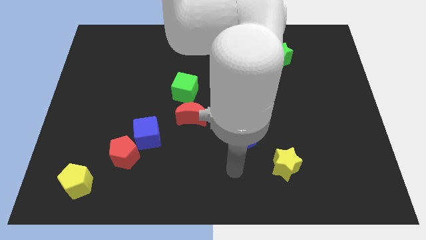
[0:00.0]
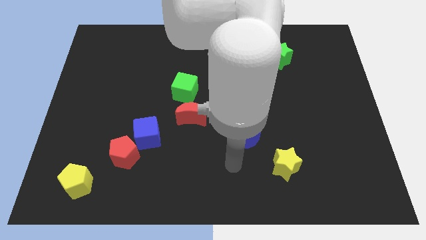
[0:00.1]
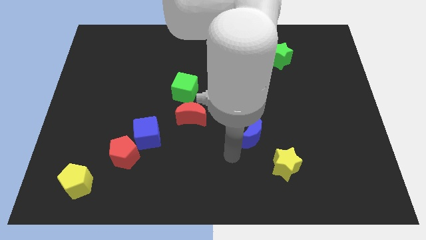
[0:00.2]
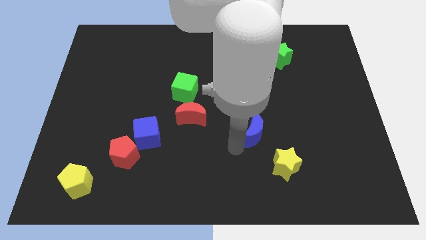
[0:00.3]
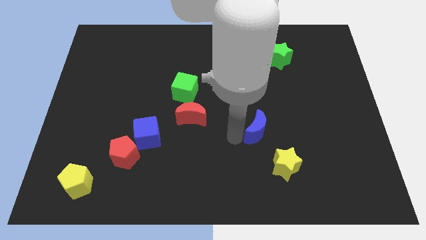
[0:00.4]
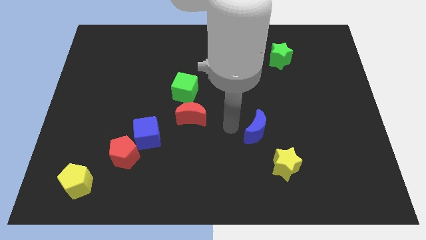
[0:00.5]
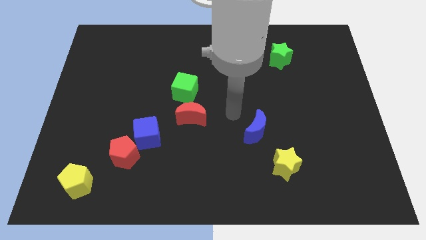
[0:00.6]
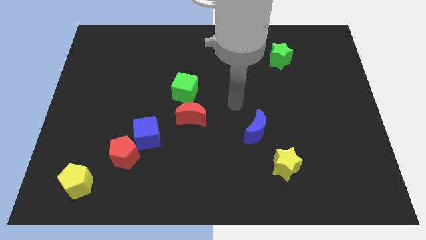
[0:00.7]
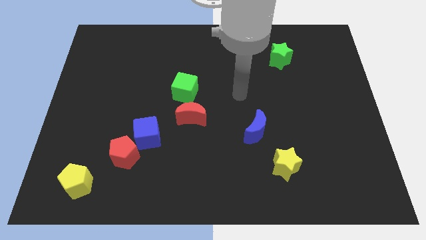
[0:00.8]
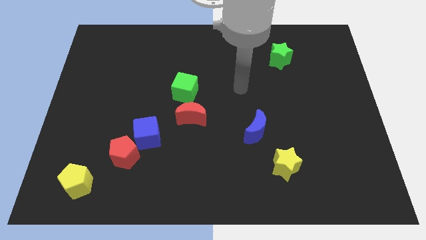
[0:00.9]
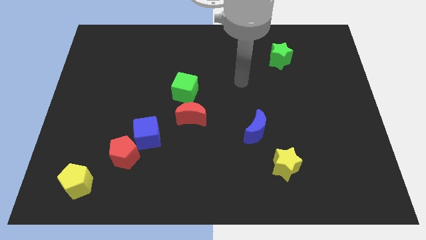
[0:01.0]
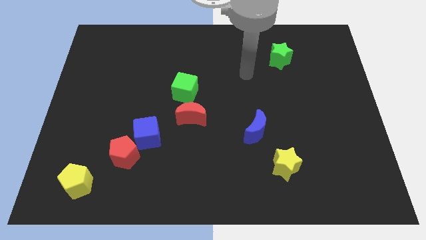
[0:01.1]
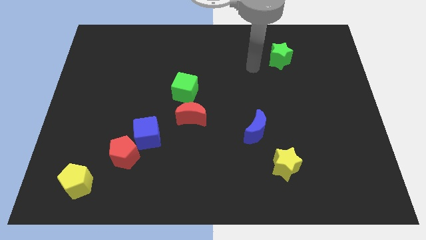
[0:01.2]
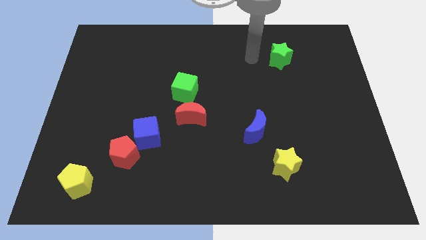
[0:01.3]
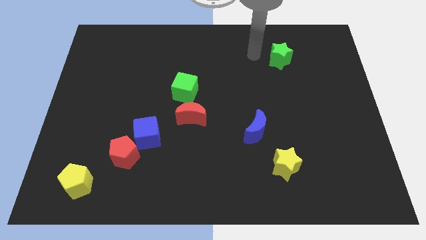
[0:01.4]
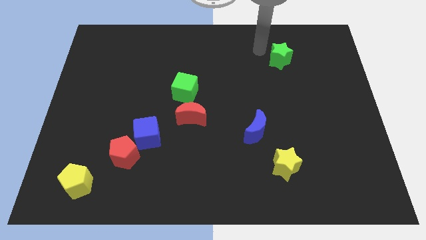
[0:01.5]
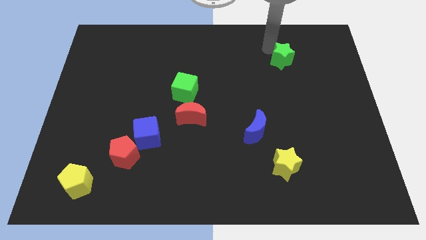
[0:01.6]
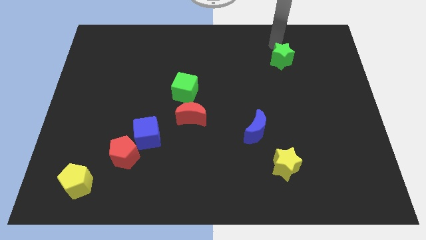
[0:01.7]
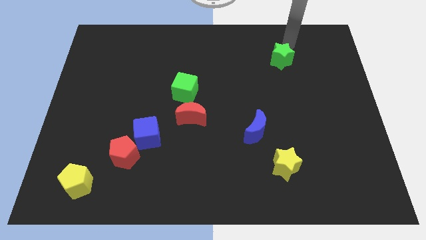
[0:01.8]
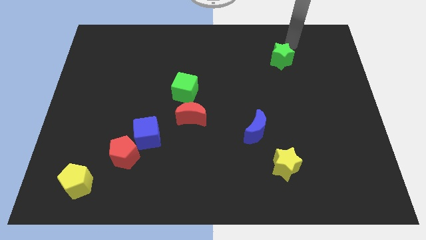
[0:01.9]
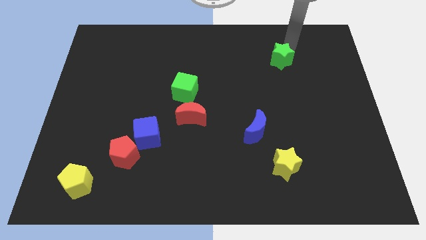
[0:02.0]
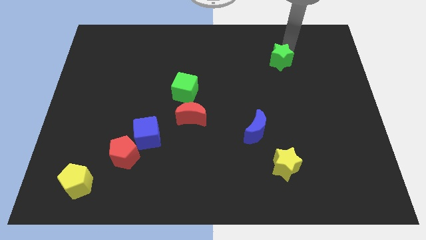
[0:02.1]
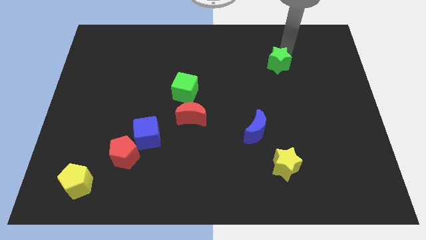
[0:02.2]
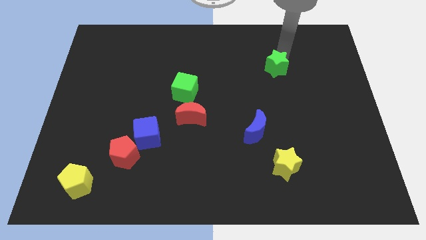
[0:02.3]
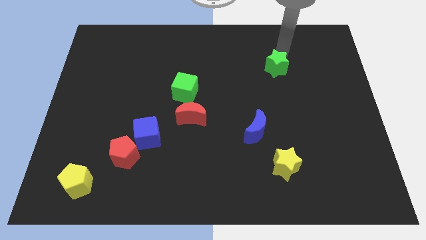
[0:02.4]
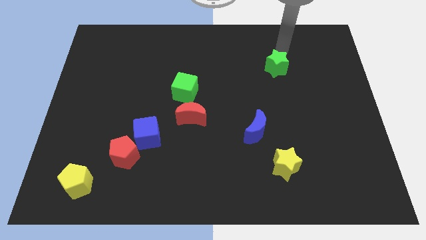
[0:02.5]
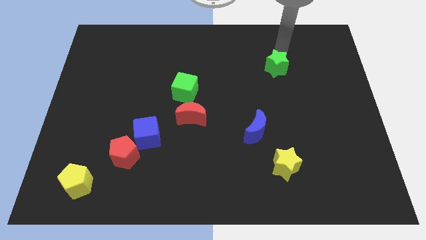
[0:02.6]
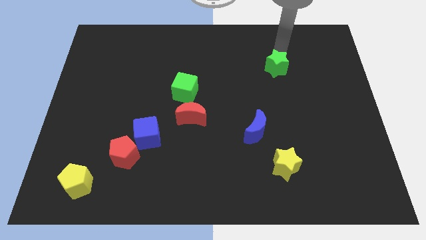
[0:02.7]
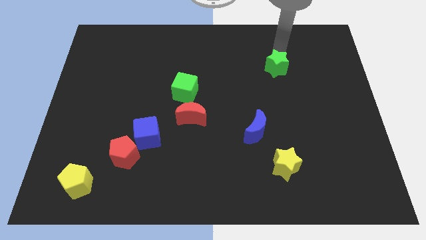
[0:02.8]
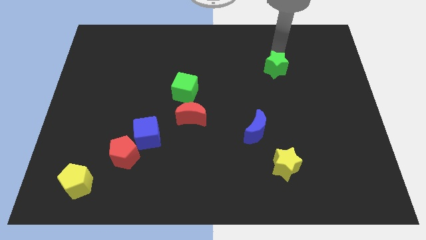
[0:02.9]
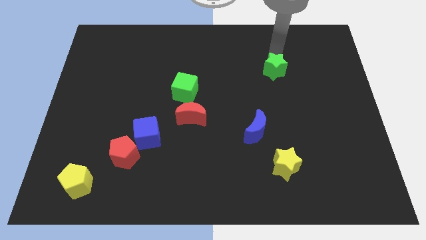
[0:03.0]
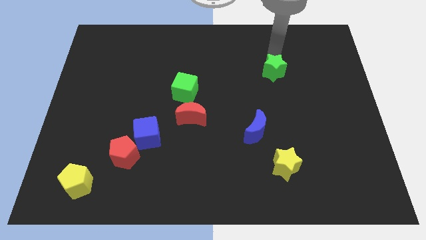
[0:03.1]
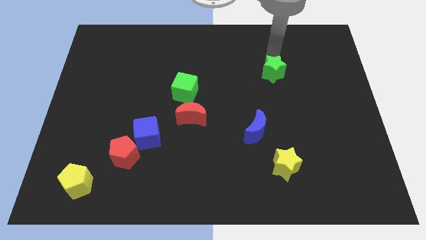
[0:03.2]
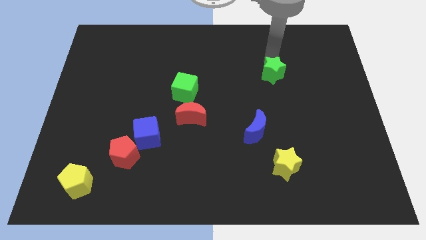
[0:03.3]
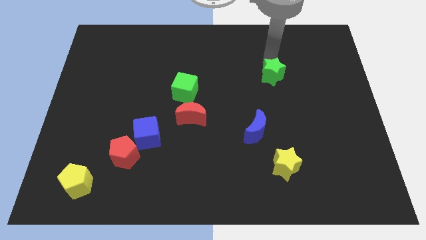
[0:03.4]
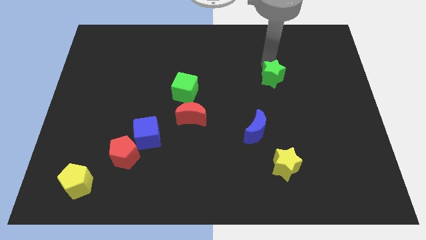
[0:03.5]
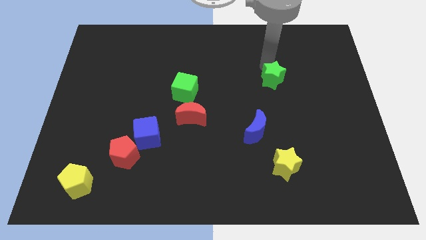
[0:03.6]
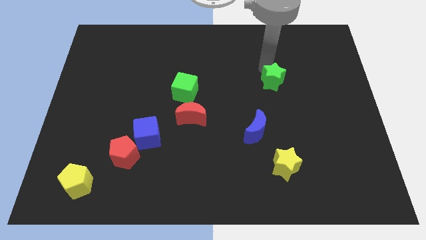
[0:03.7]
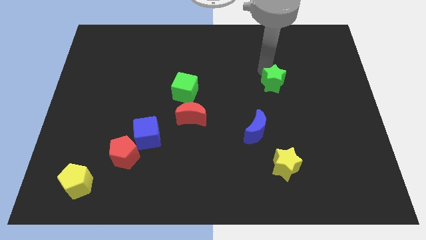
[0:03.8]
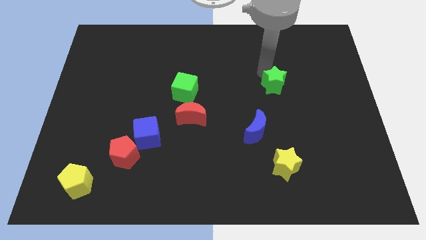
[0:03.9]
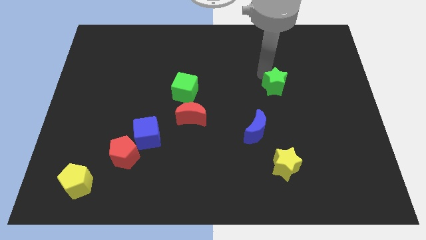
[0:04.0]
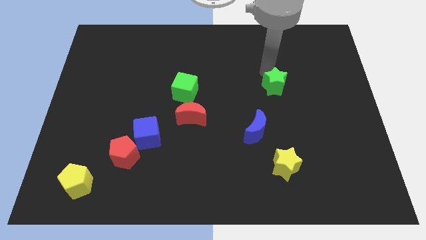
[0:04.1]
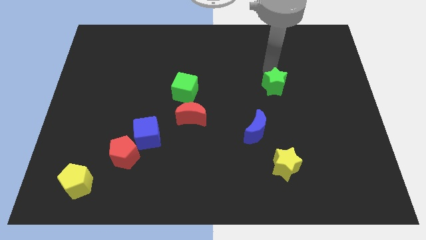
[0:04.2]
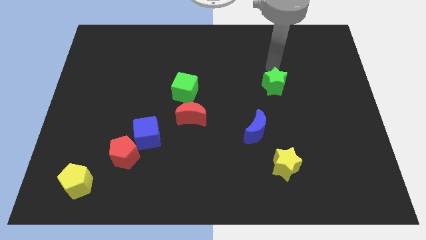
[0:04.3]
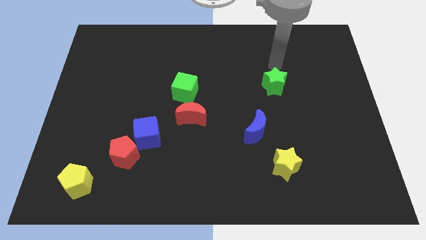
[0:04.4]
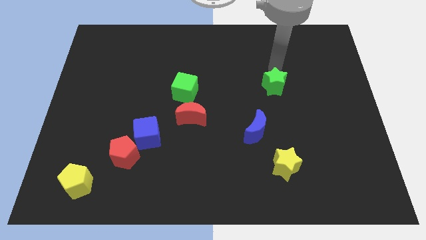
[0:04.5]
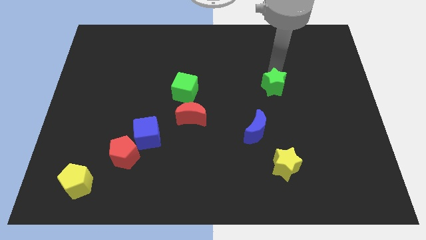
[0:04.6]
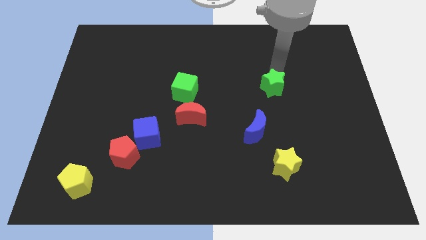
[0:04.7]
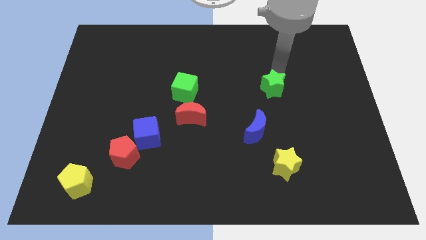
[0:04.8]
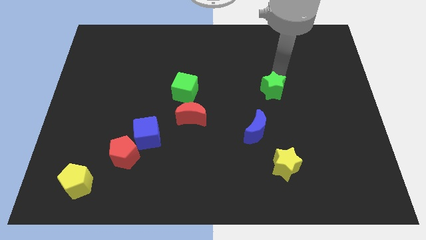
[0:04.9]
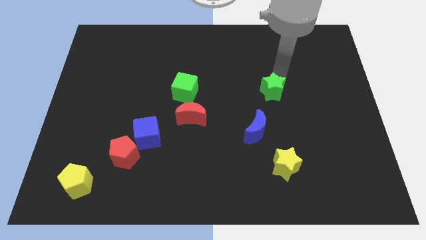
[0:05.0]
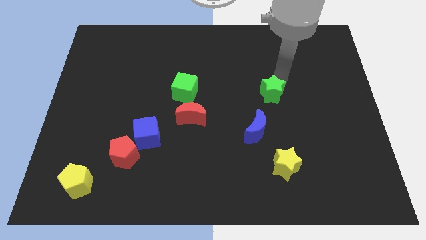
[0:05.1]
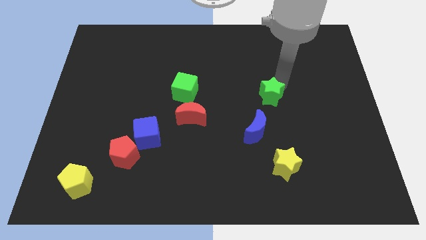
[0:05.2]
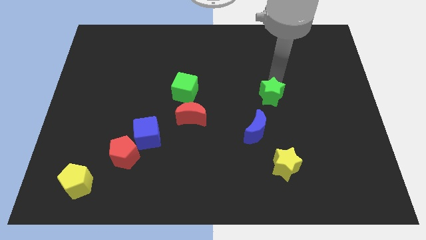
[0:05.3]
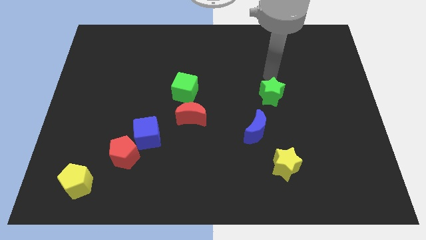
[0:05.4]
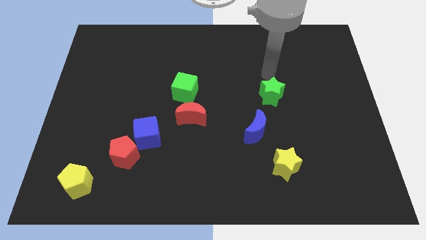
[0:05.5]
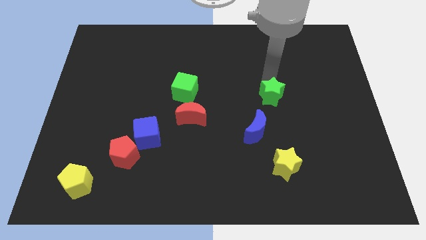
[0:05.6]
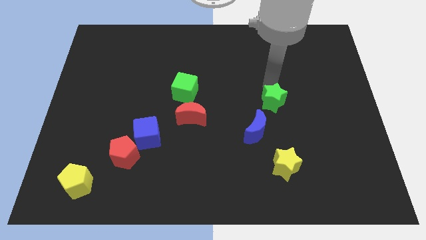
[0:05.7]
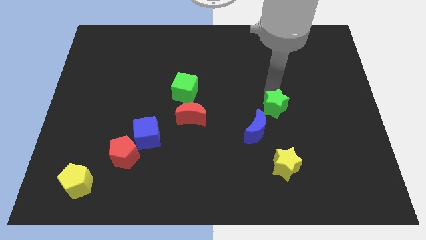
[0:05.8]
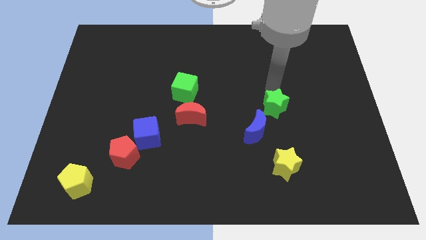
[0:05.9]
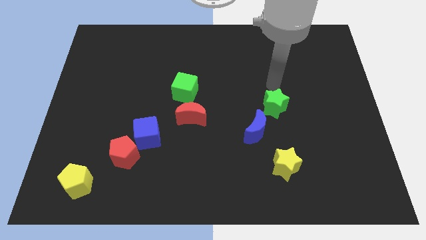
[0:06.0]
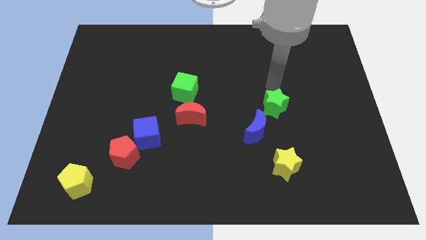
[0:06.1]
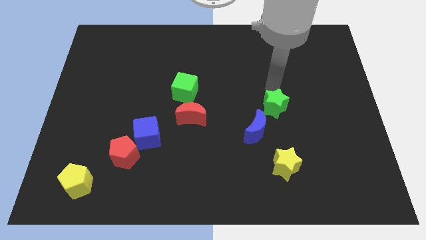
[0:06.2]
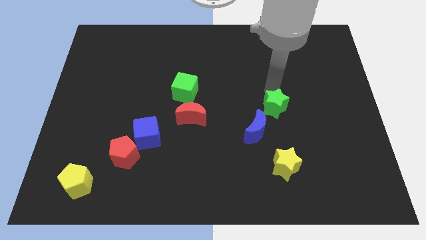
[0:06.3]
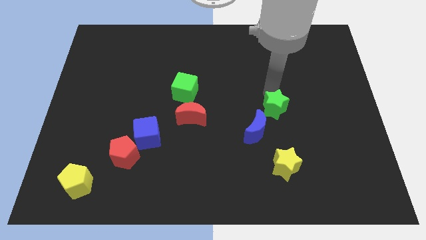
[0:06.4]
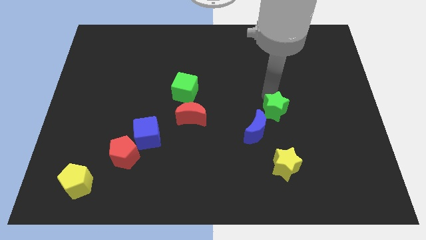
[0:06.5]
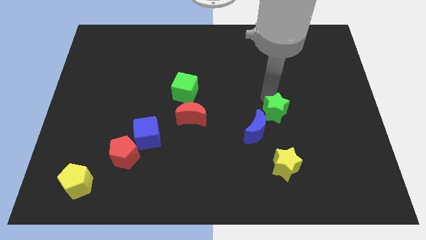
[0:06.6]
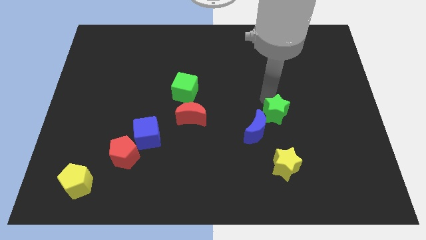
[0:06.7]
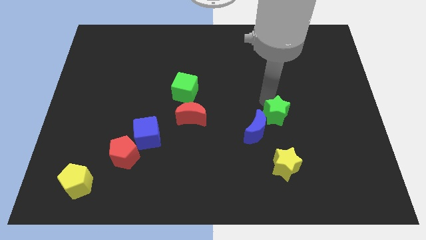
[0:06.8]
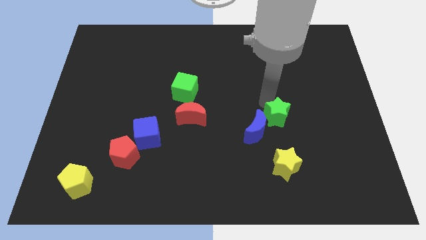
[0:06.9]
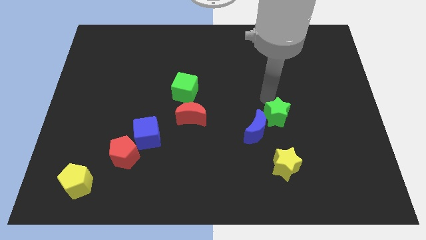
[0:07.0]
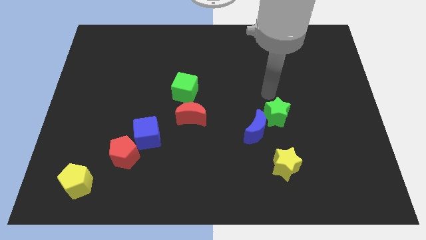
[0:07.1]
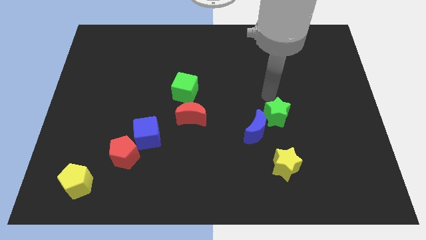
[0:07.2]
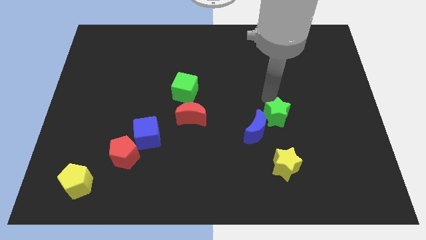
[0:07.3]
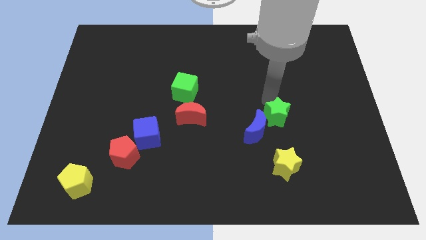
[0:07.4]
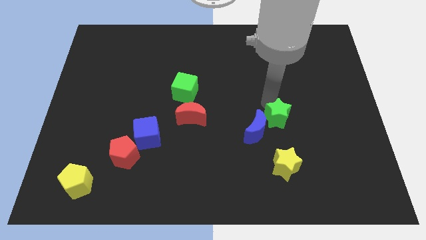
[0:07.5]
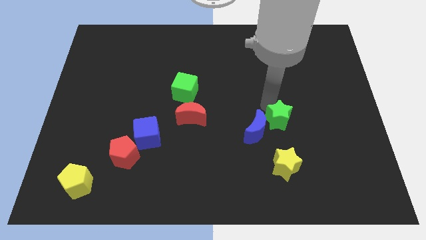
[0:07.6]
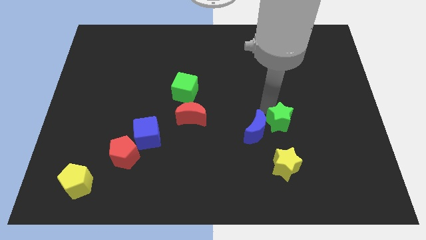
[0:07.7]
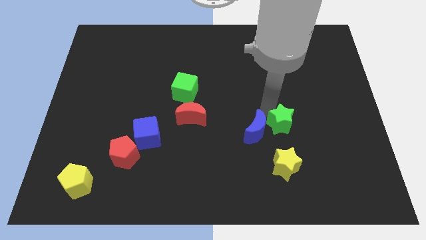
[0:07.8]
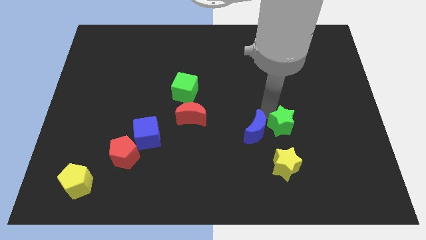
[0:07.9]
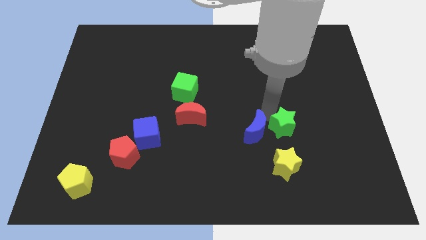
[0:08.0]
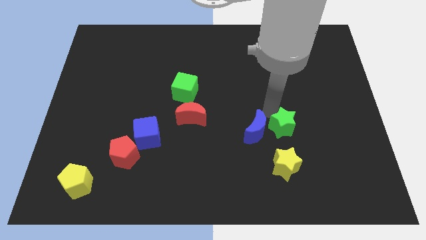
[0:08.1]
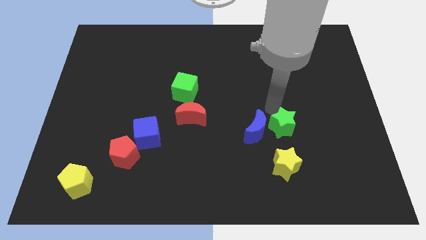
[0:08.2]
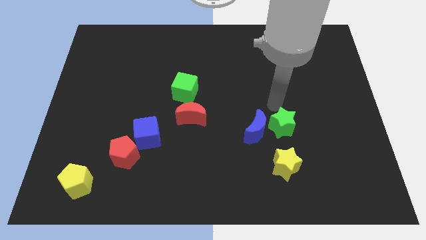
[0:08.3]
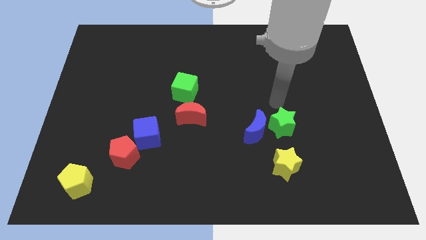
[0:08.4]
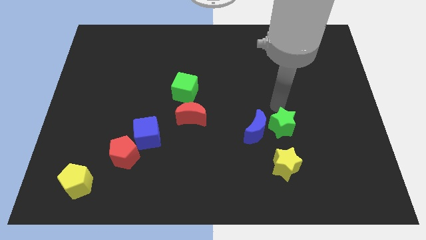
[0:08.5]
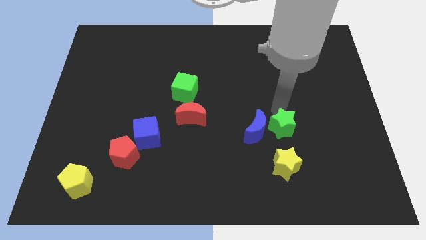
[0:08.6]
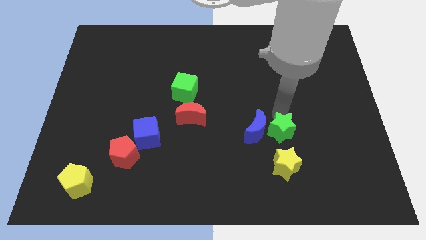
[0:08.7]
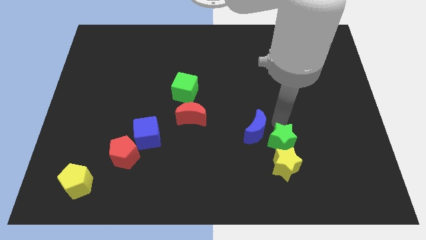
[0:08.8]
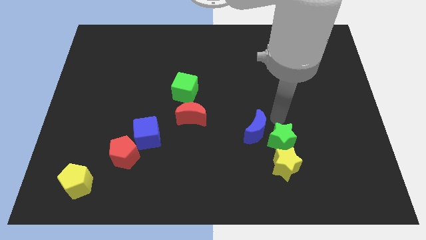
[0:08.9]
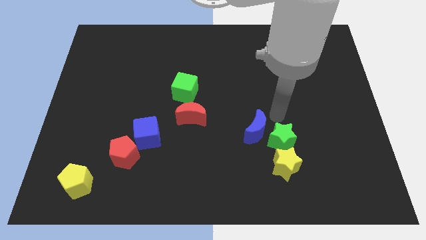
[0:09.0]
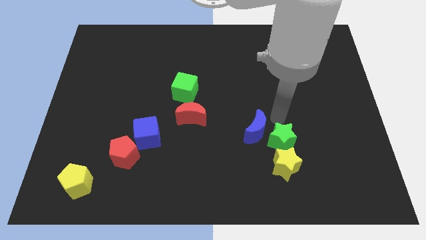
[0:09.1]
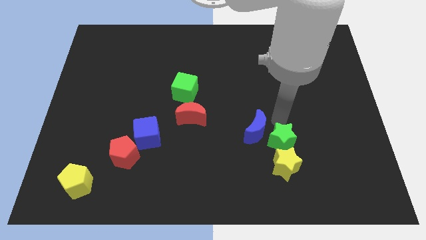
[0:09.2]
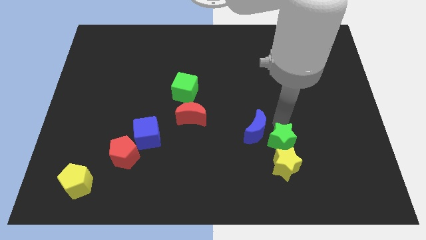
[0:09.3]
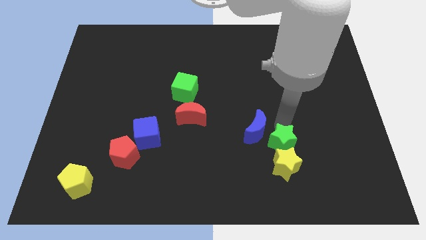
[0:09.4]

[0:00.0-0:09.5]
move the green star next to the yellow star
